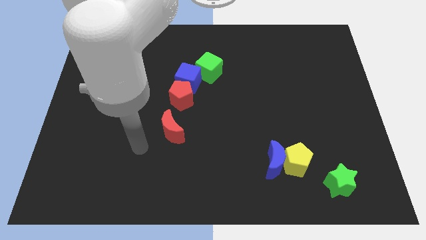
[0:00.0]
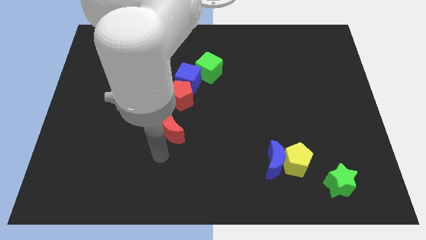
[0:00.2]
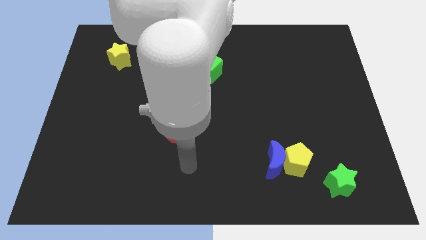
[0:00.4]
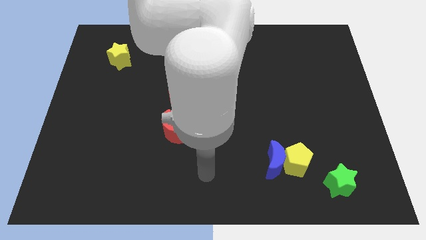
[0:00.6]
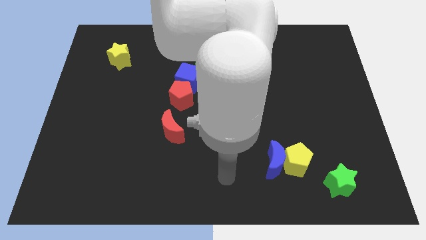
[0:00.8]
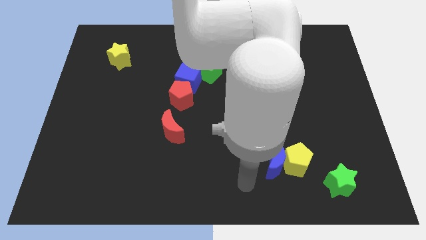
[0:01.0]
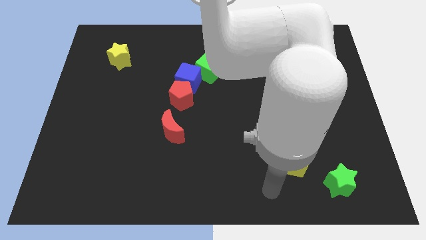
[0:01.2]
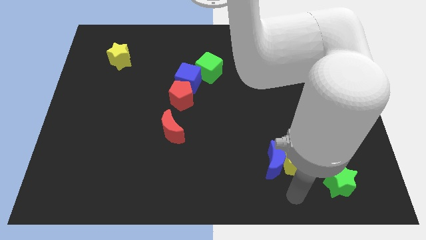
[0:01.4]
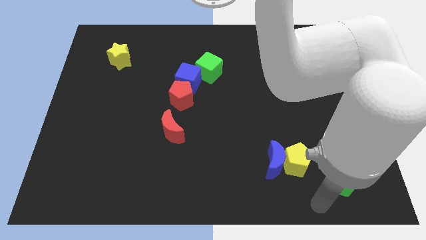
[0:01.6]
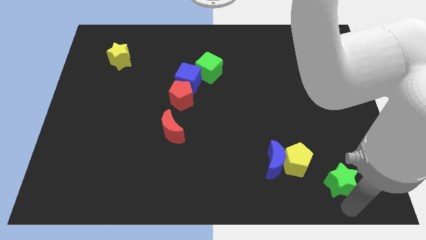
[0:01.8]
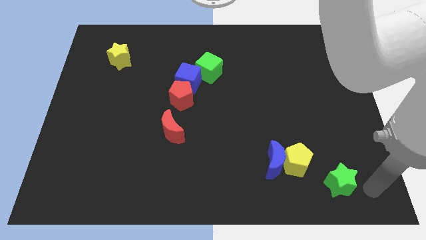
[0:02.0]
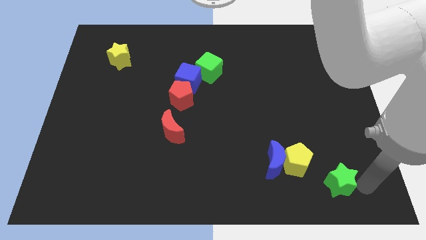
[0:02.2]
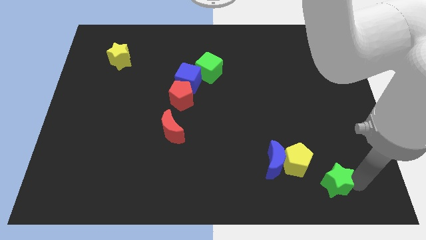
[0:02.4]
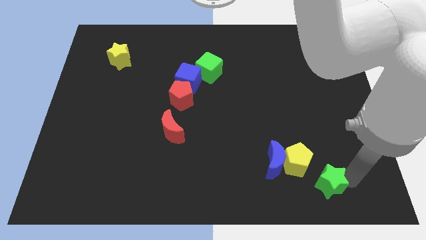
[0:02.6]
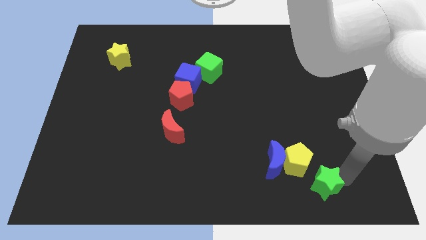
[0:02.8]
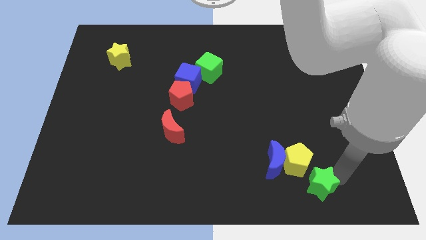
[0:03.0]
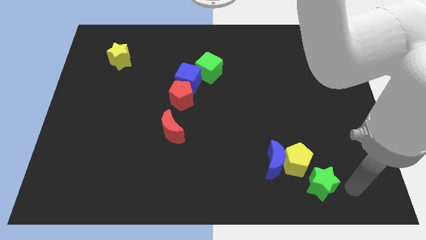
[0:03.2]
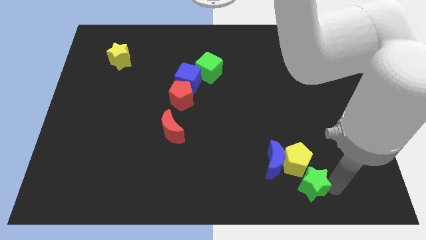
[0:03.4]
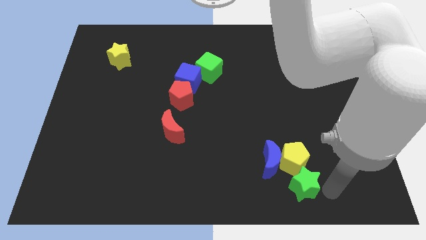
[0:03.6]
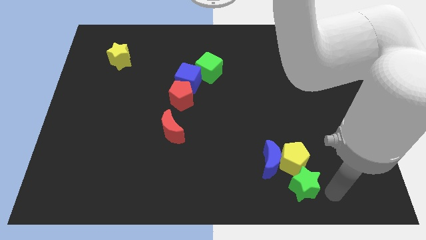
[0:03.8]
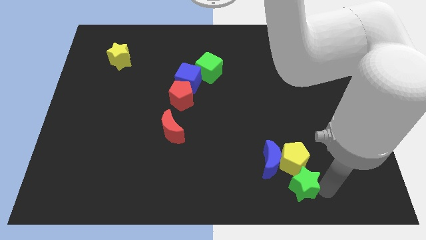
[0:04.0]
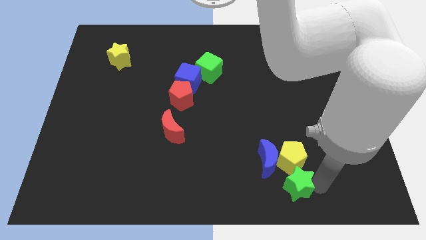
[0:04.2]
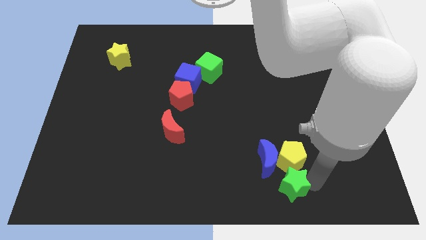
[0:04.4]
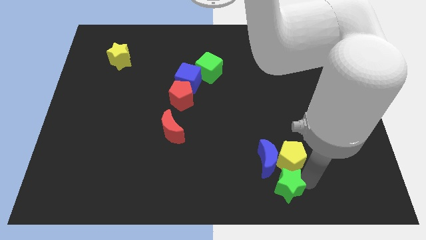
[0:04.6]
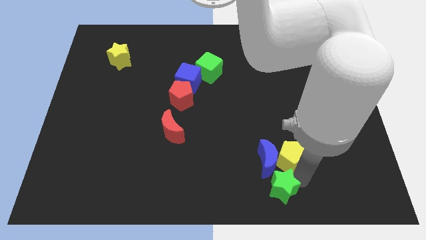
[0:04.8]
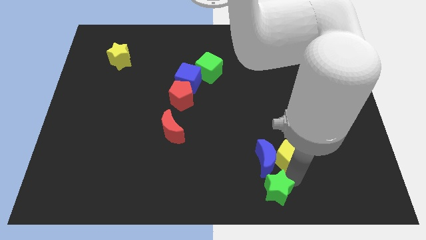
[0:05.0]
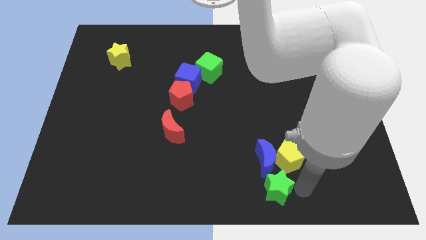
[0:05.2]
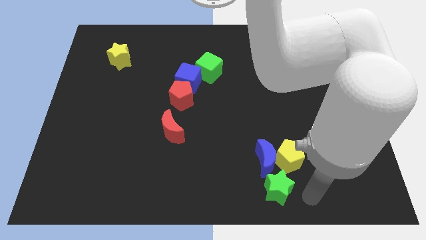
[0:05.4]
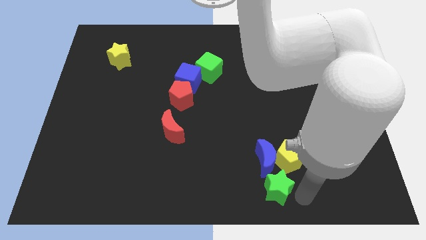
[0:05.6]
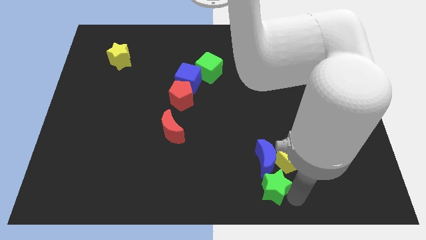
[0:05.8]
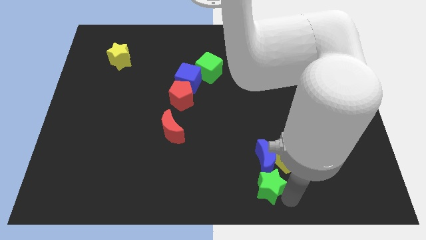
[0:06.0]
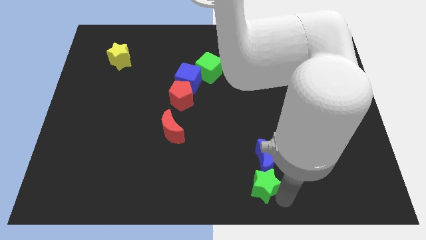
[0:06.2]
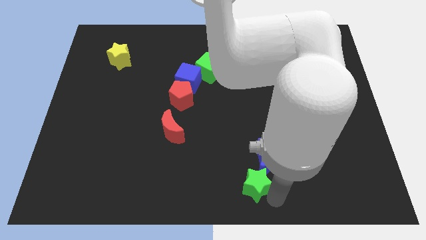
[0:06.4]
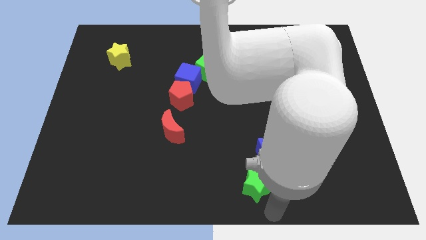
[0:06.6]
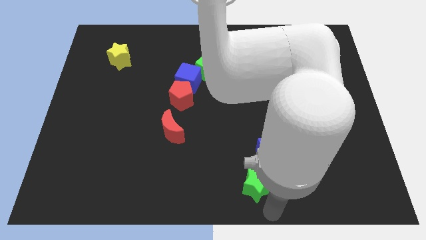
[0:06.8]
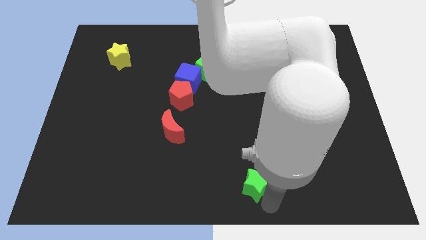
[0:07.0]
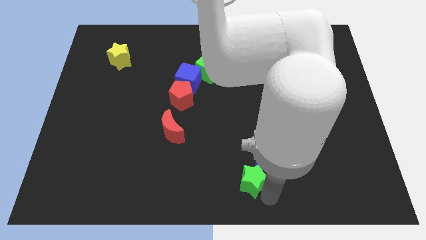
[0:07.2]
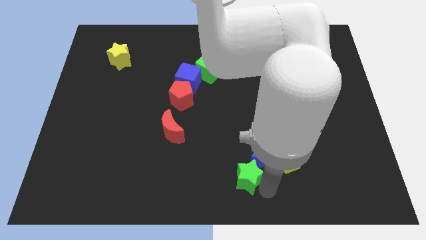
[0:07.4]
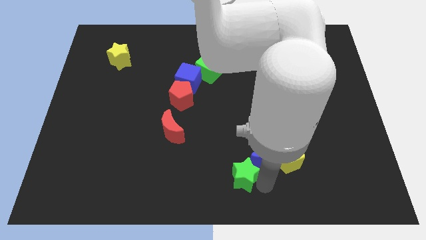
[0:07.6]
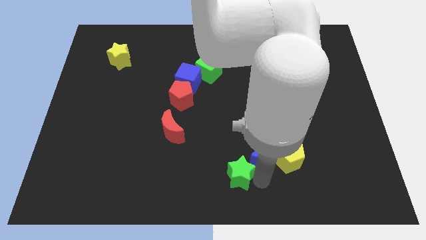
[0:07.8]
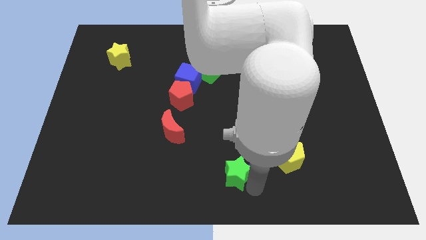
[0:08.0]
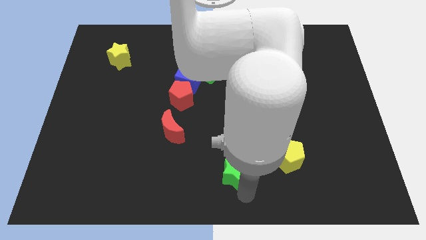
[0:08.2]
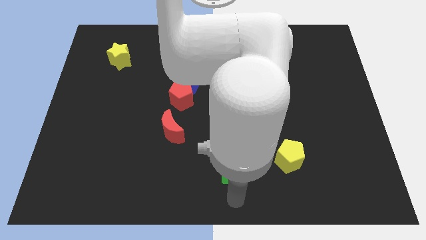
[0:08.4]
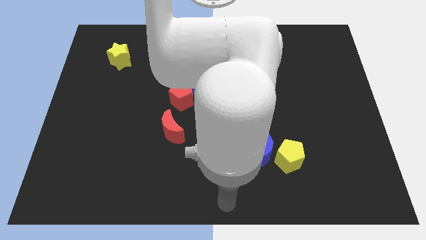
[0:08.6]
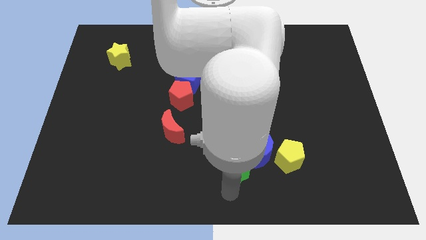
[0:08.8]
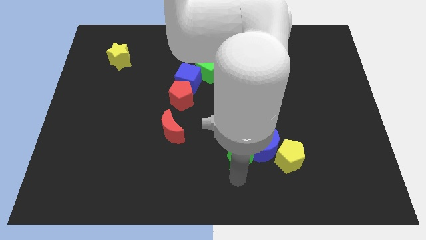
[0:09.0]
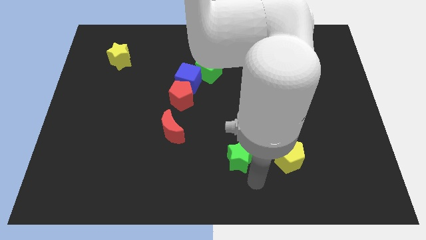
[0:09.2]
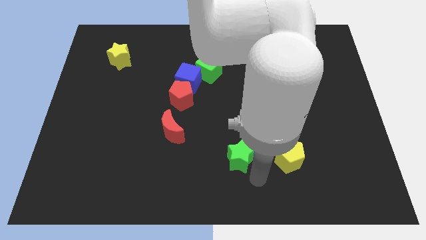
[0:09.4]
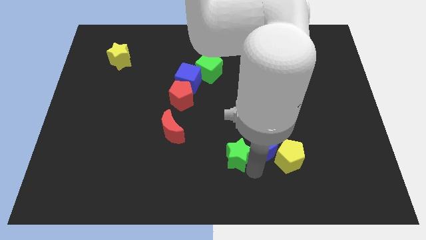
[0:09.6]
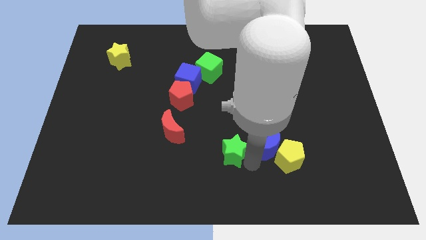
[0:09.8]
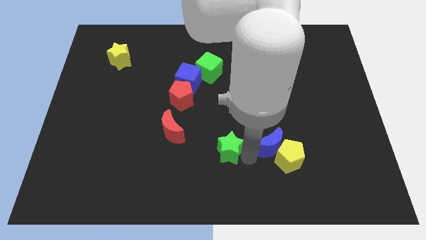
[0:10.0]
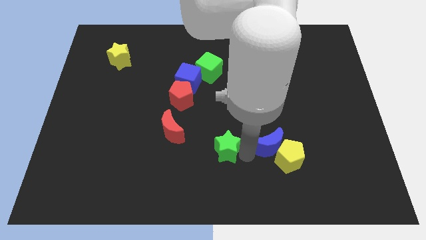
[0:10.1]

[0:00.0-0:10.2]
put the green star to the right of the red moon

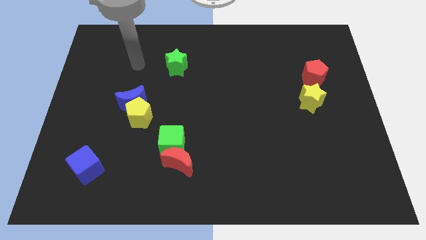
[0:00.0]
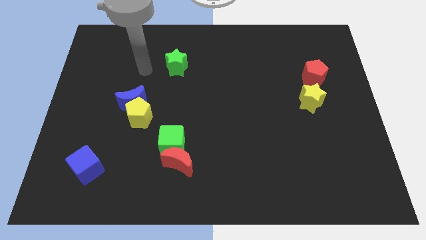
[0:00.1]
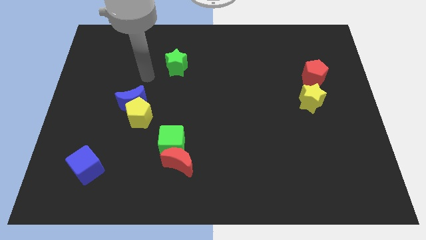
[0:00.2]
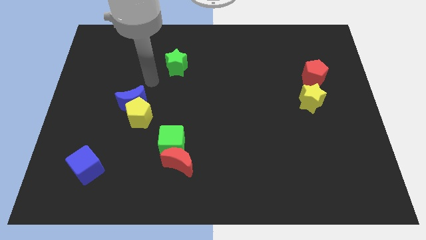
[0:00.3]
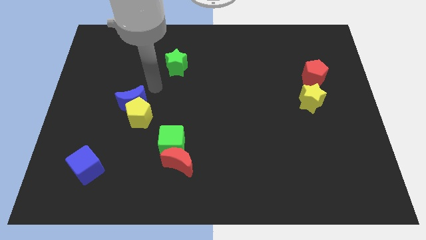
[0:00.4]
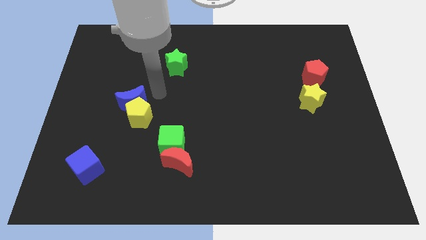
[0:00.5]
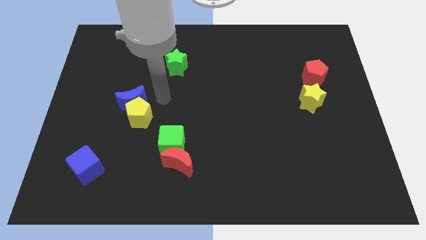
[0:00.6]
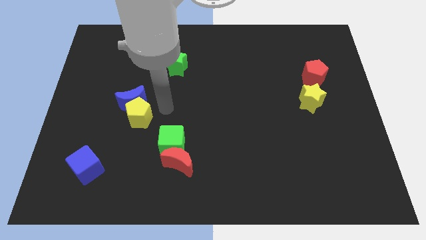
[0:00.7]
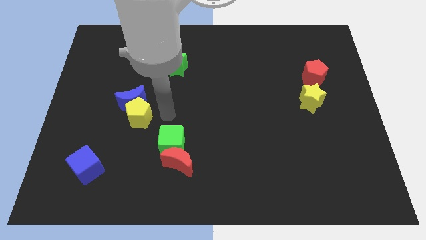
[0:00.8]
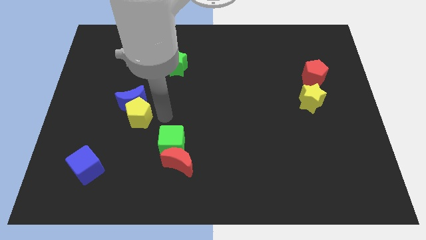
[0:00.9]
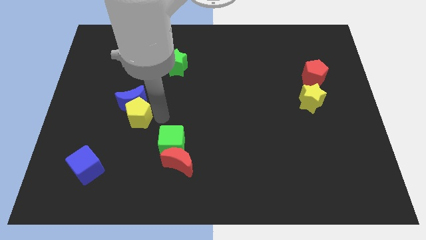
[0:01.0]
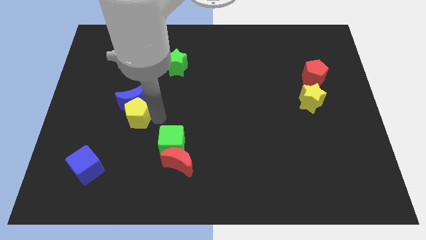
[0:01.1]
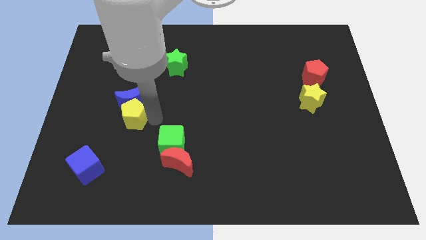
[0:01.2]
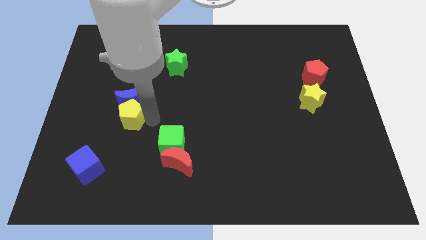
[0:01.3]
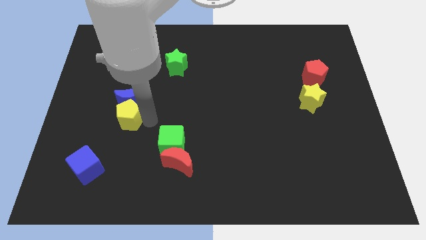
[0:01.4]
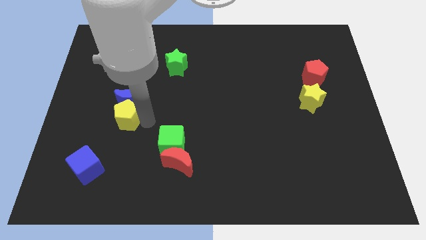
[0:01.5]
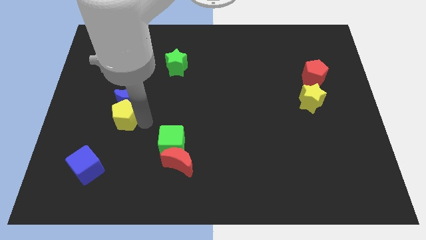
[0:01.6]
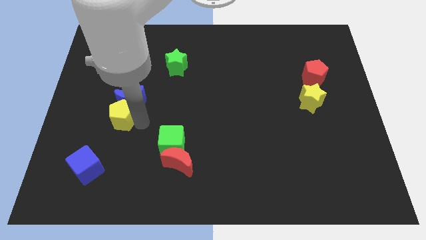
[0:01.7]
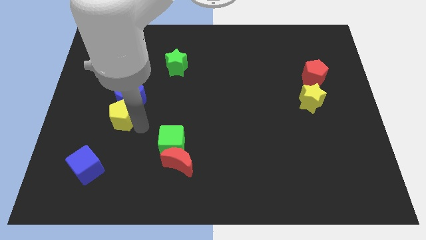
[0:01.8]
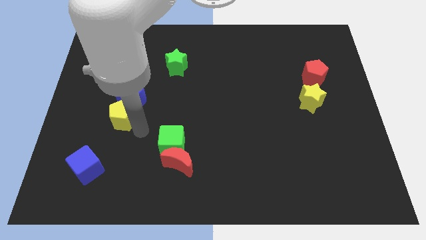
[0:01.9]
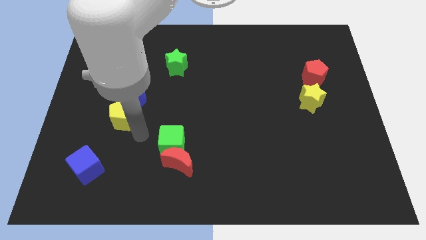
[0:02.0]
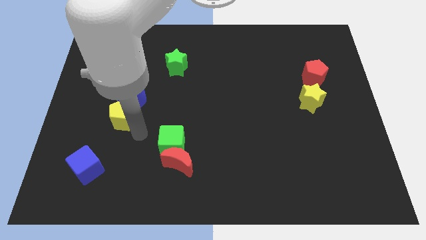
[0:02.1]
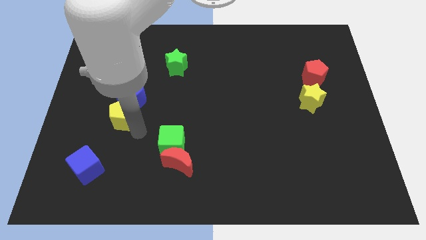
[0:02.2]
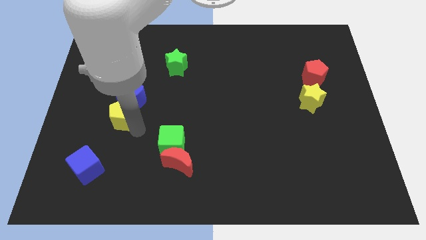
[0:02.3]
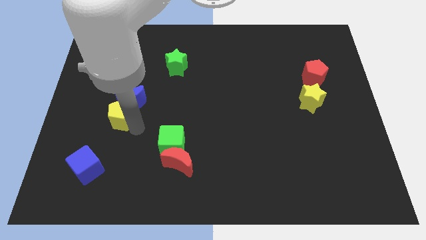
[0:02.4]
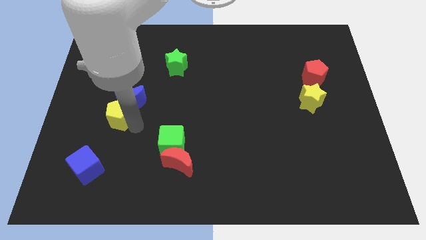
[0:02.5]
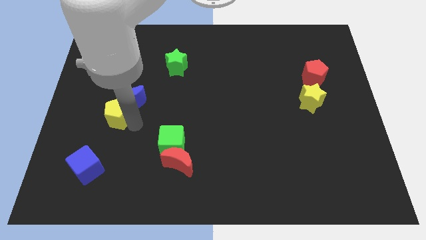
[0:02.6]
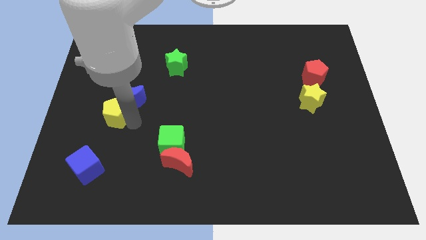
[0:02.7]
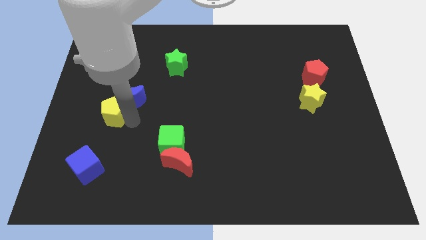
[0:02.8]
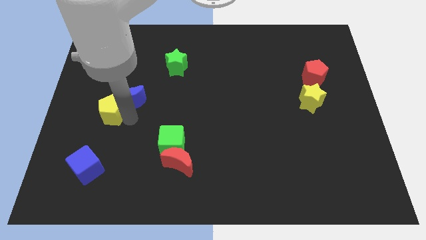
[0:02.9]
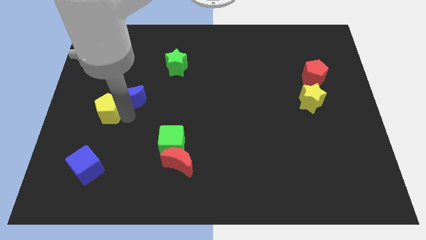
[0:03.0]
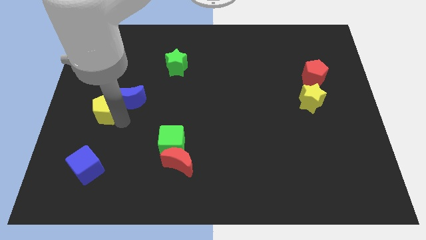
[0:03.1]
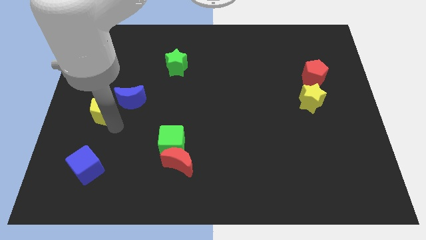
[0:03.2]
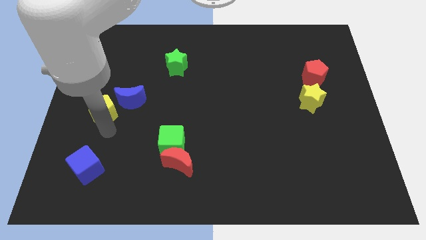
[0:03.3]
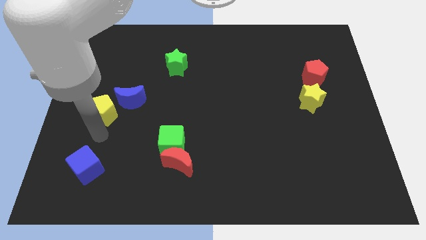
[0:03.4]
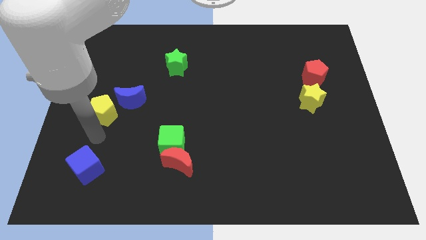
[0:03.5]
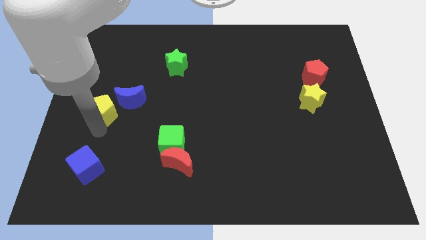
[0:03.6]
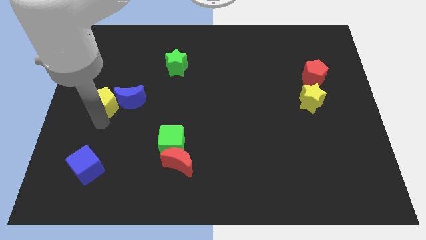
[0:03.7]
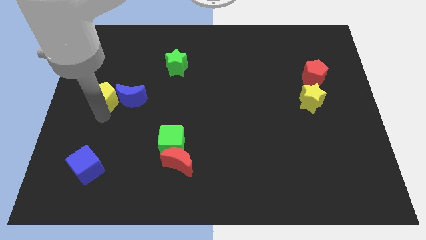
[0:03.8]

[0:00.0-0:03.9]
move the yellow pentagon diagonally up and to the left of the blue moon
